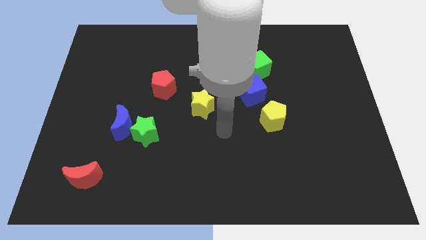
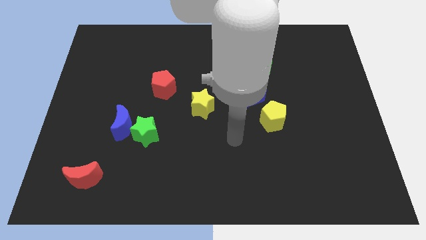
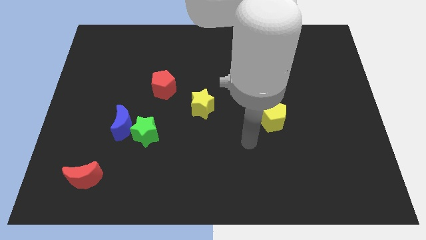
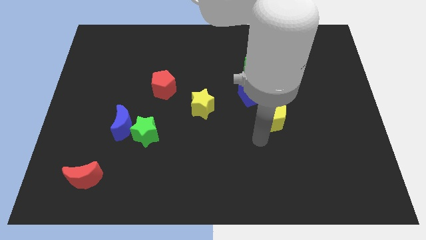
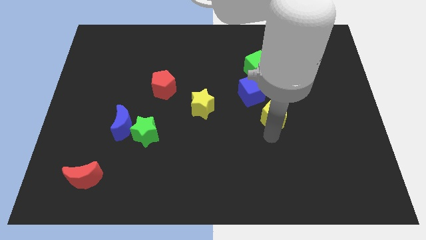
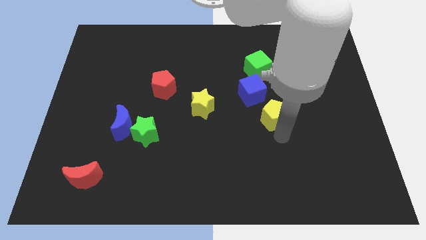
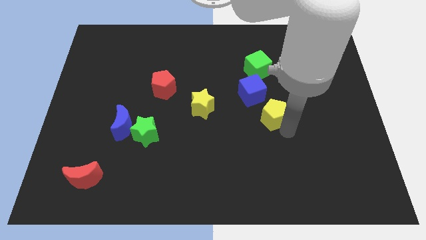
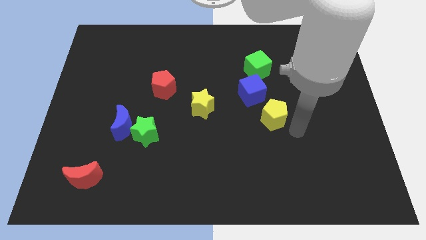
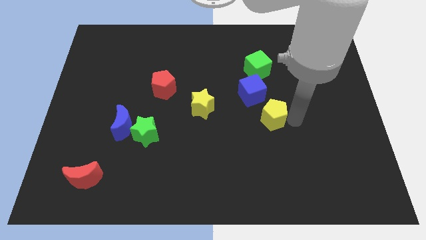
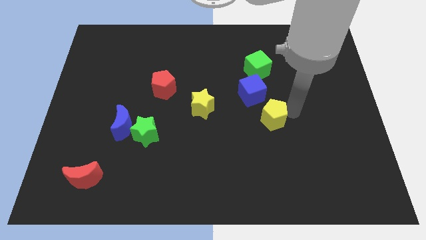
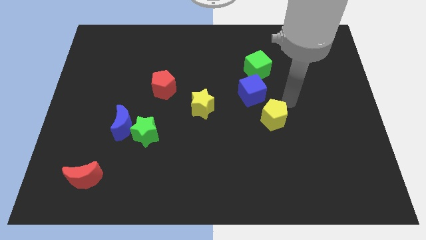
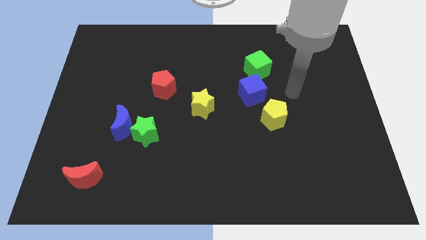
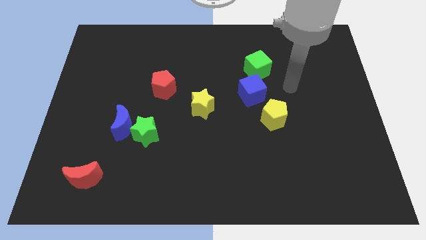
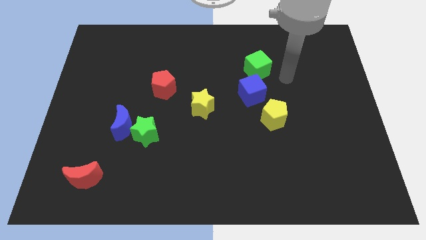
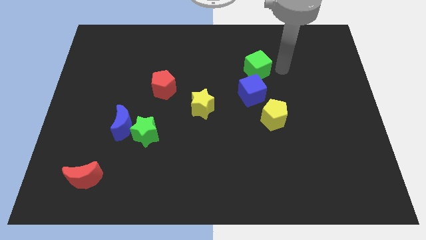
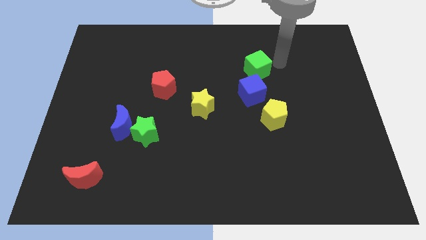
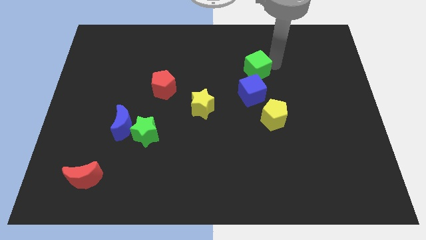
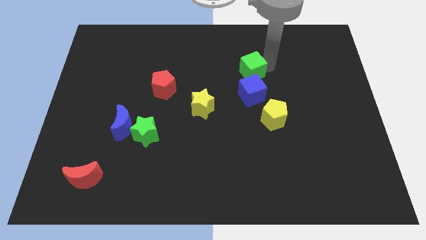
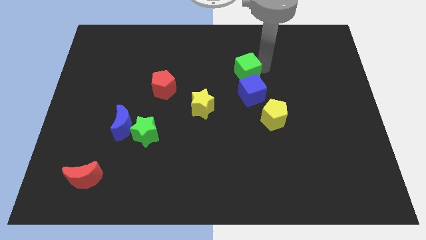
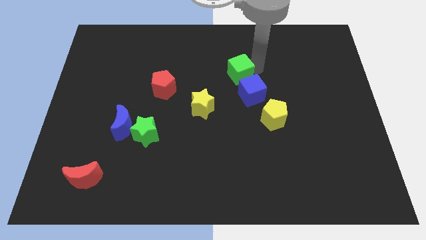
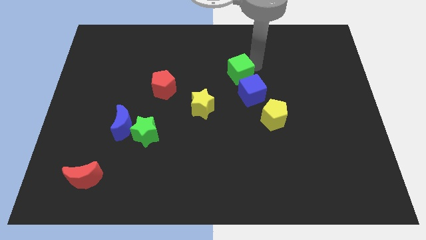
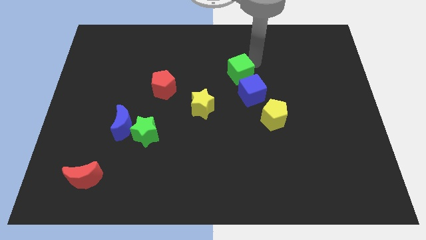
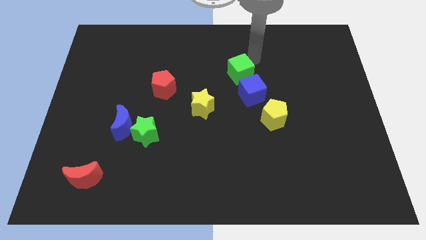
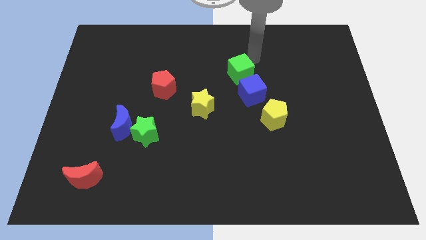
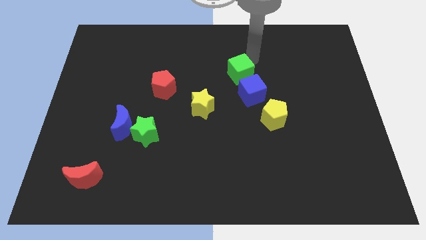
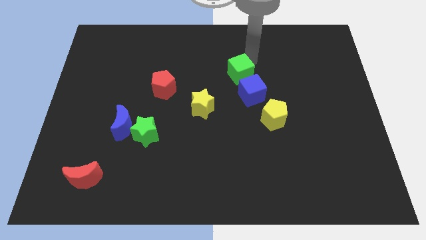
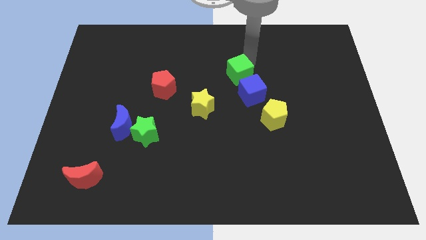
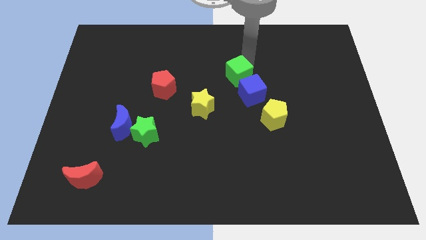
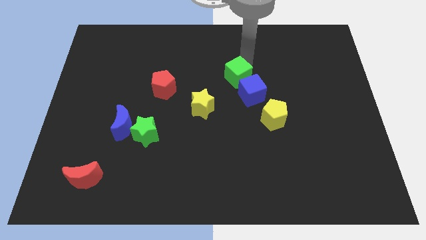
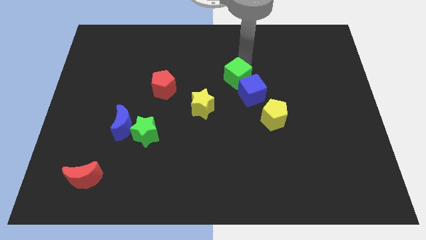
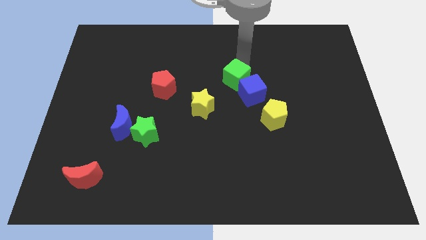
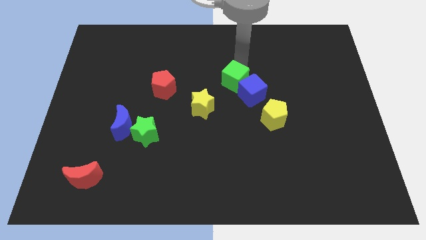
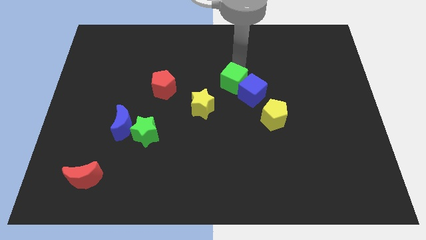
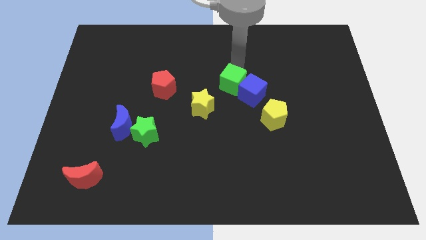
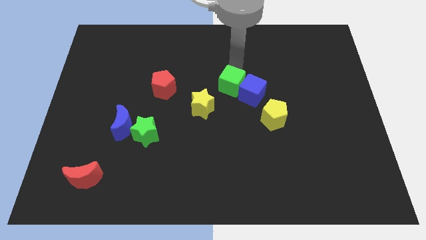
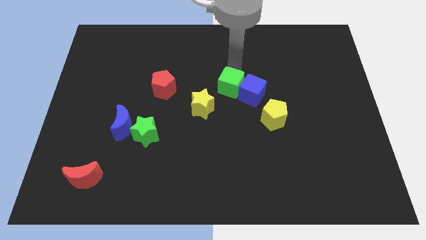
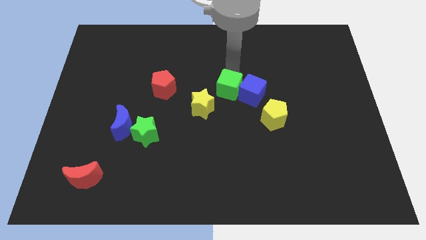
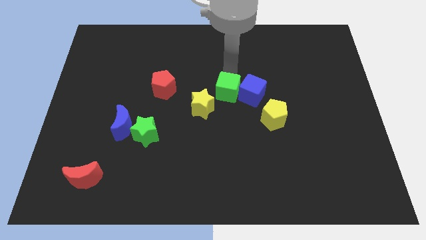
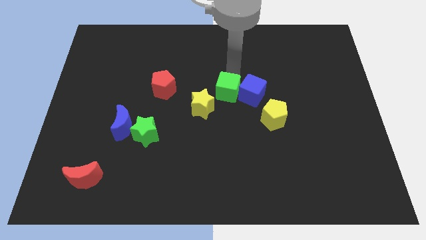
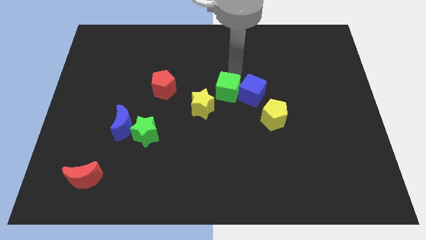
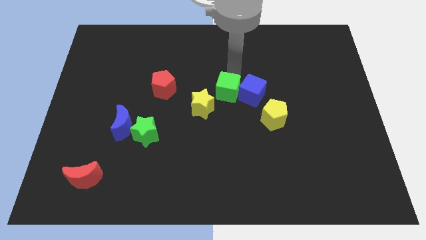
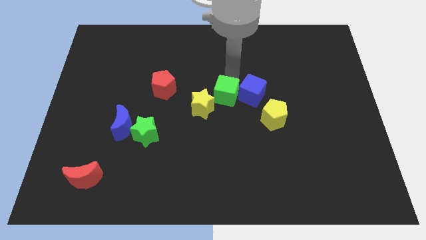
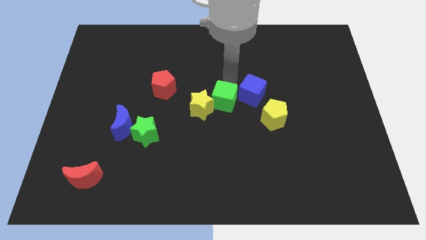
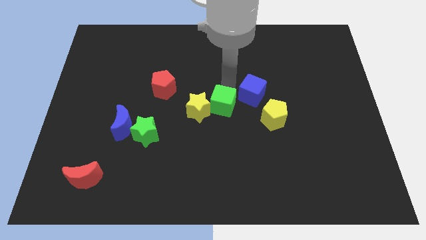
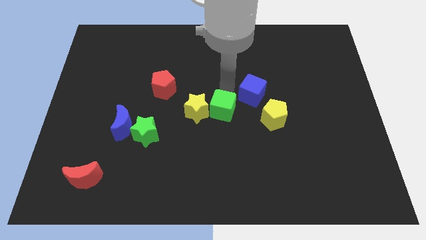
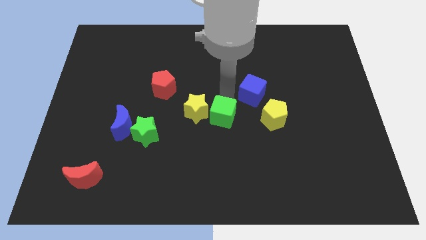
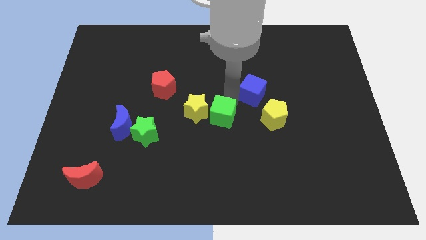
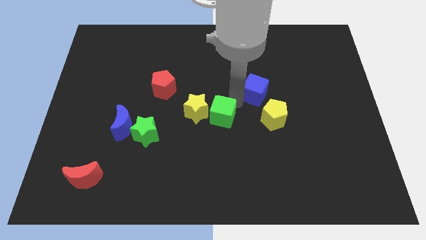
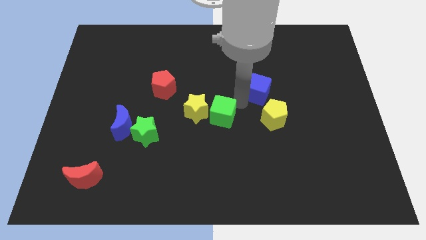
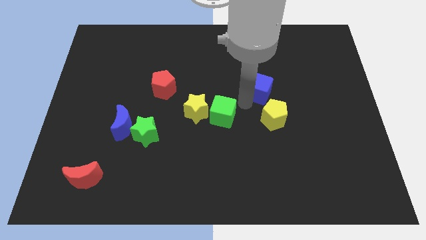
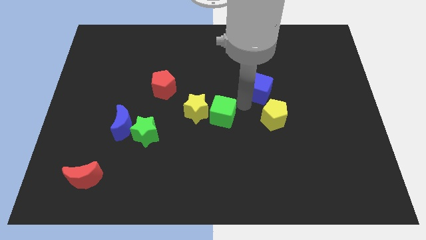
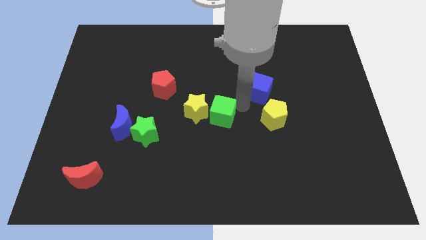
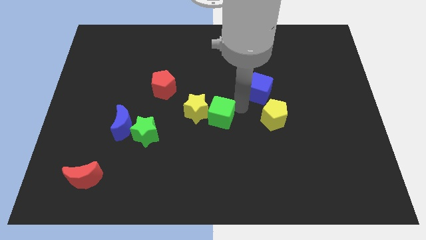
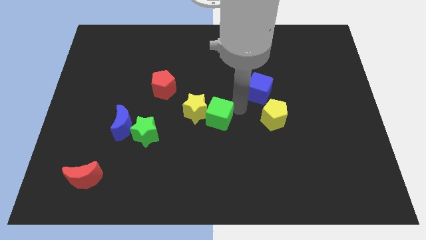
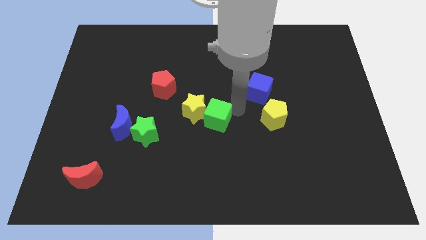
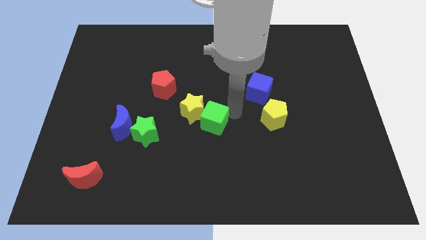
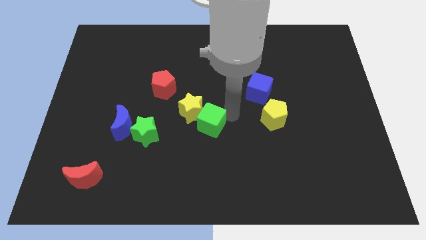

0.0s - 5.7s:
slide the green cube diagonally downwards and left

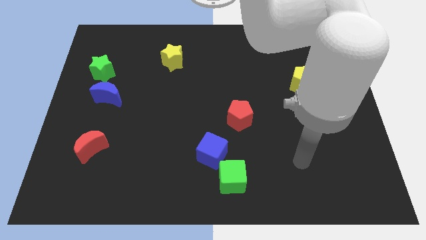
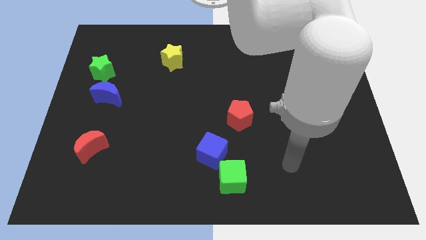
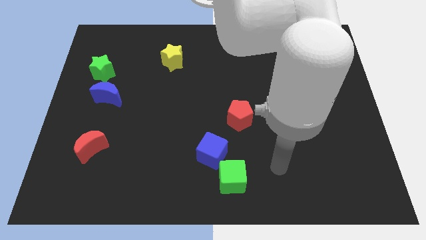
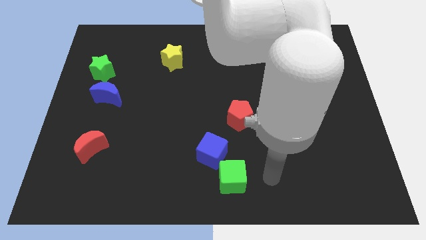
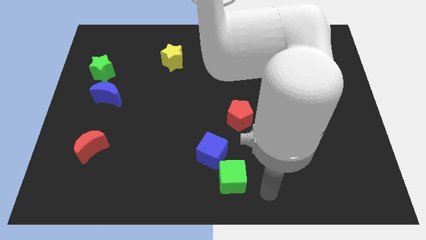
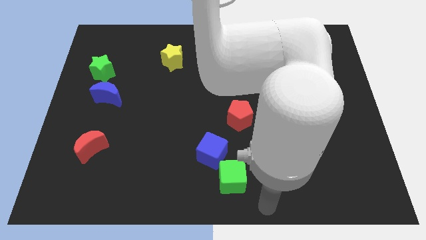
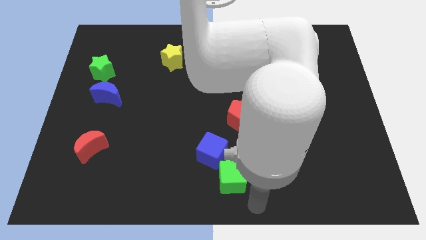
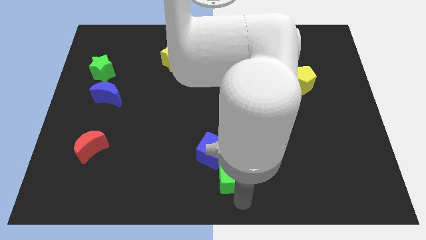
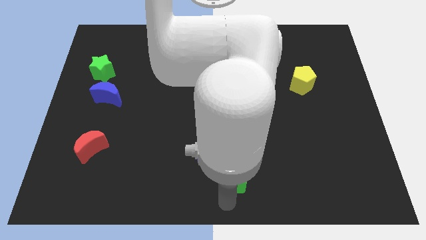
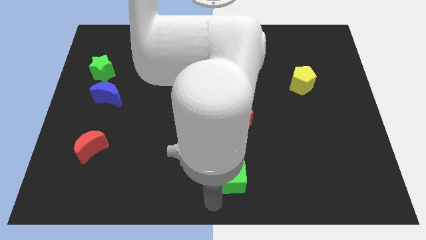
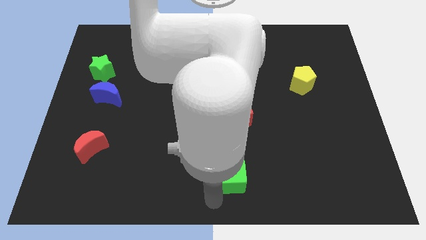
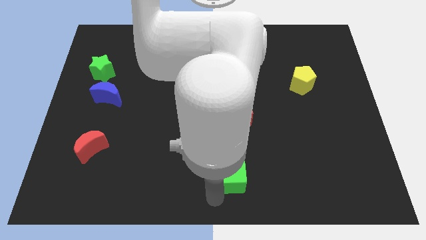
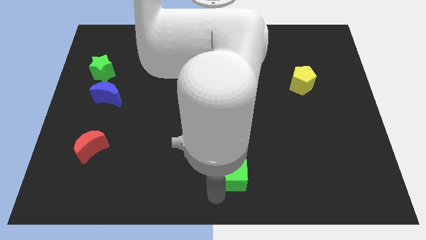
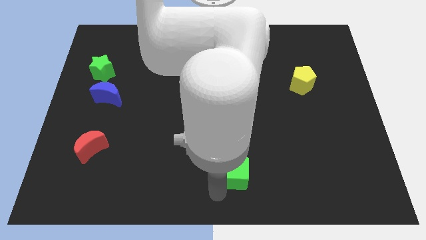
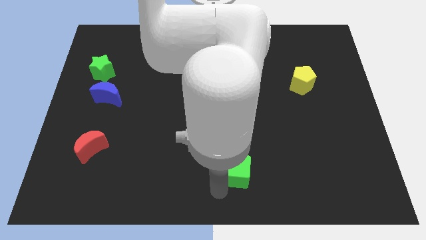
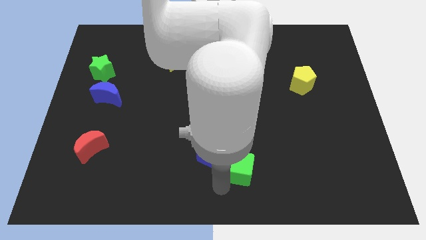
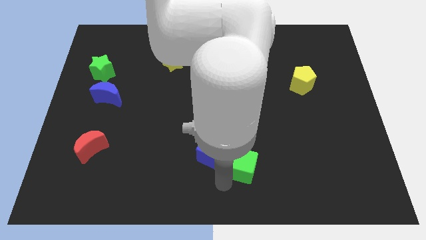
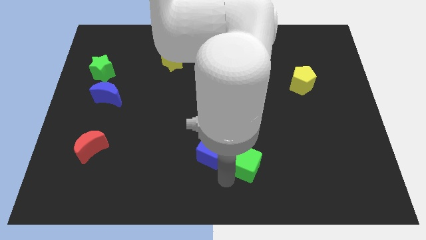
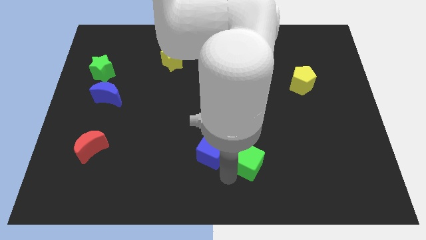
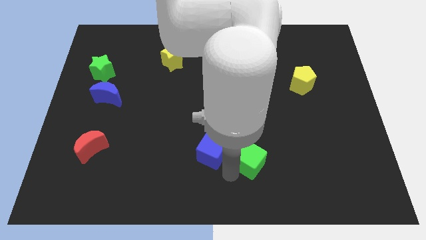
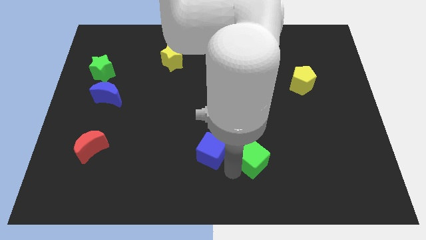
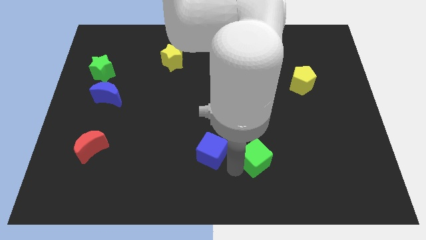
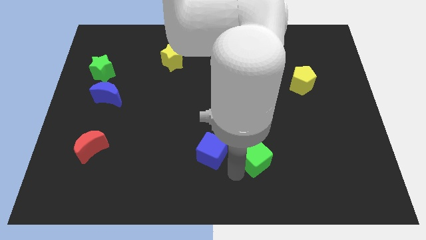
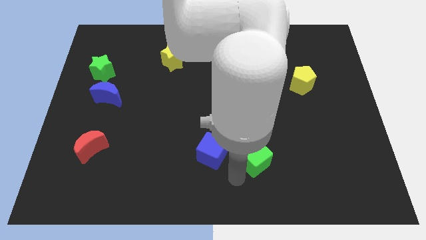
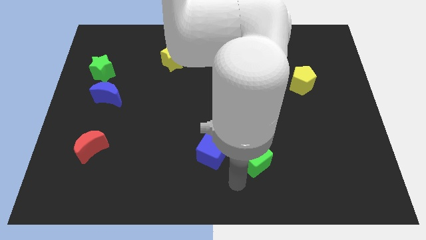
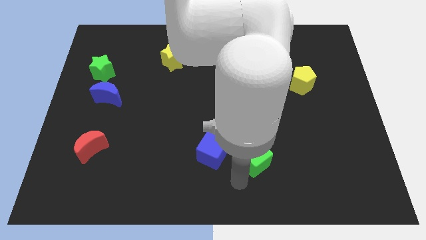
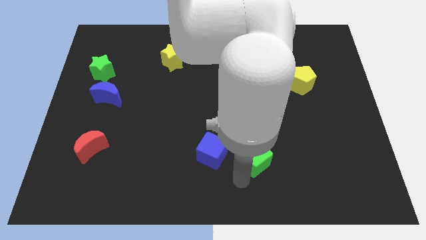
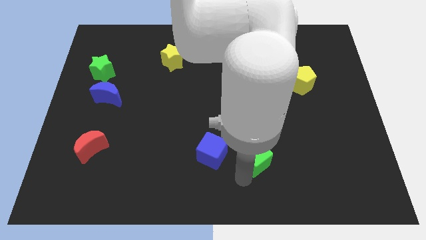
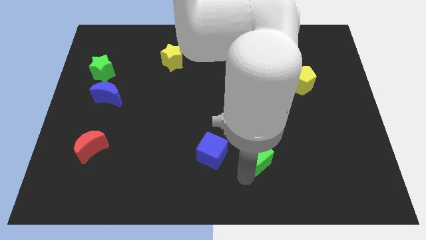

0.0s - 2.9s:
move the green cube diagonally upwards and to the right a little

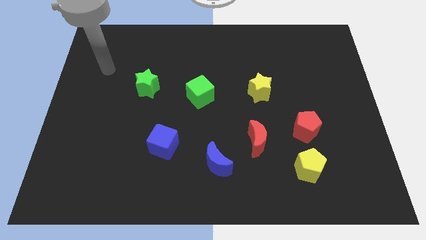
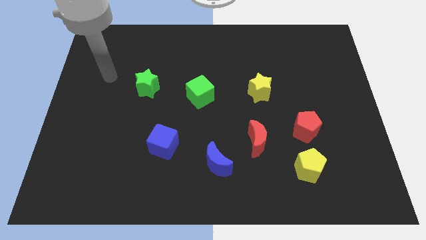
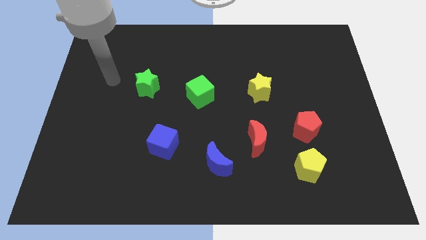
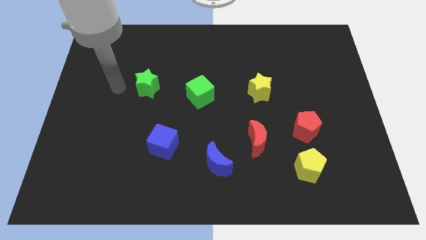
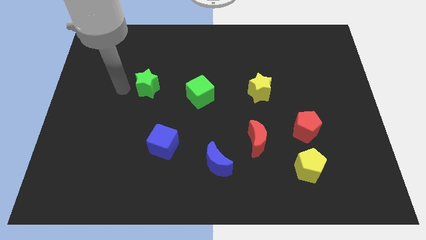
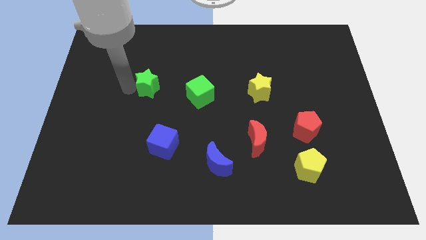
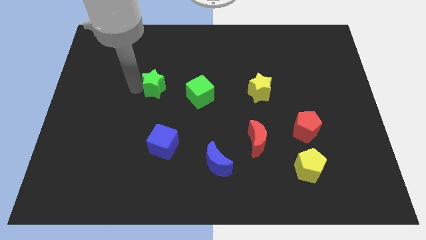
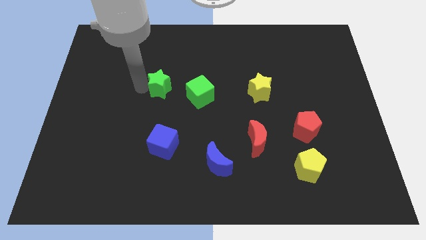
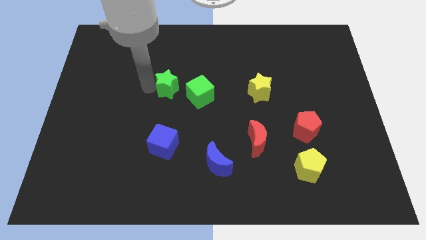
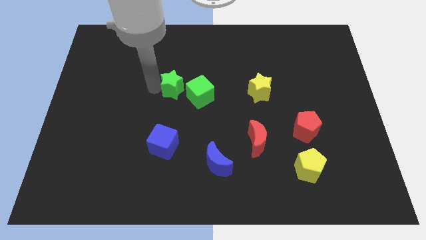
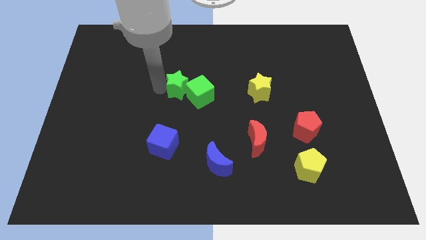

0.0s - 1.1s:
move the green star a little bit right
